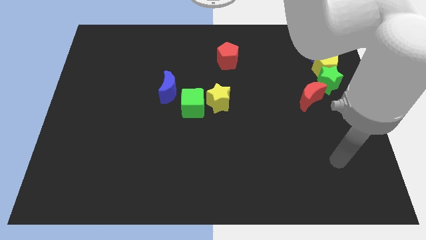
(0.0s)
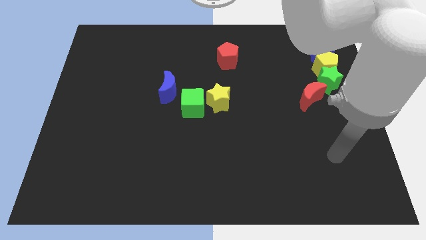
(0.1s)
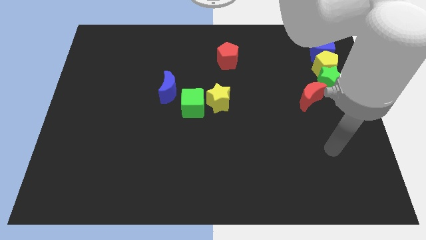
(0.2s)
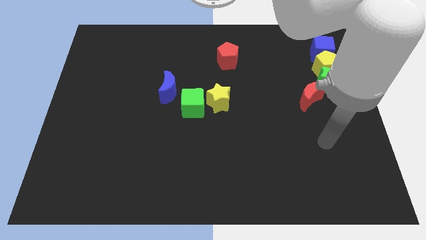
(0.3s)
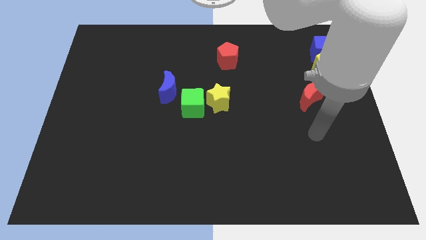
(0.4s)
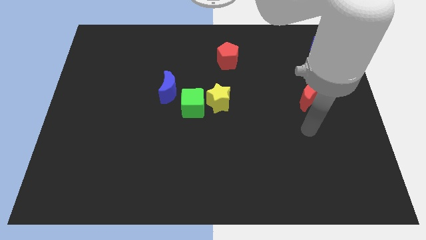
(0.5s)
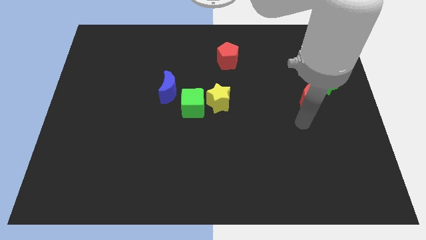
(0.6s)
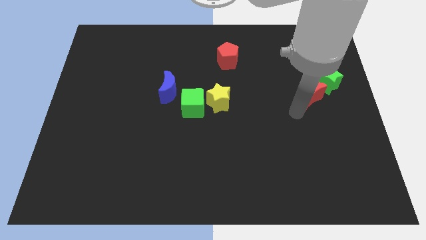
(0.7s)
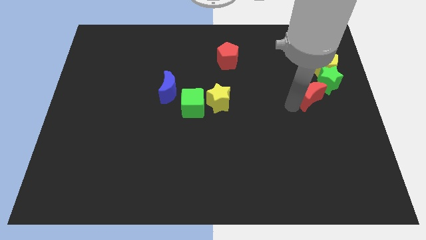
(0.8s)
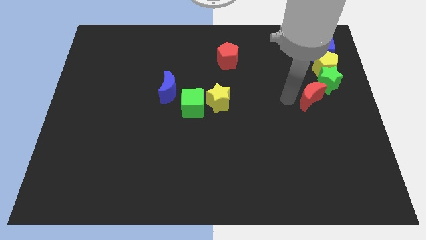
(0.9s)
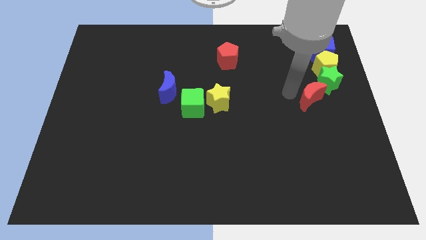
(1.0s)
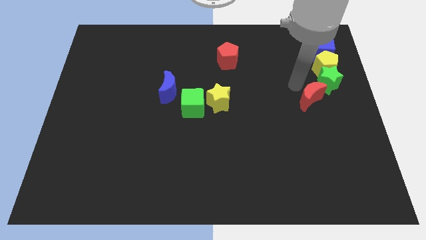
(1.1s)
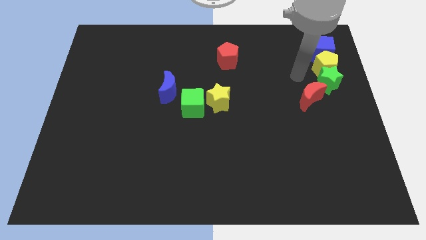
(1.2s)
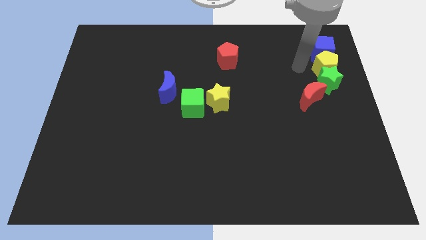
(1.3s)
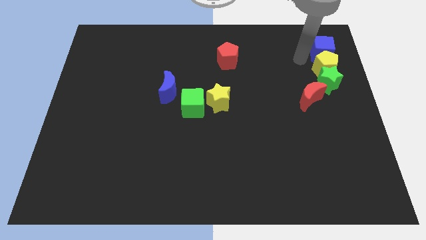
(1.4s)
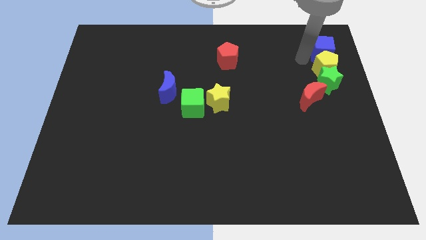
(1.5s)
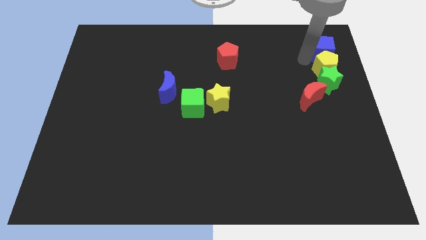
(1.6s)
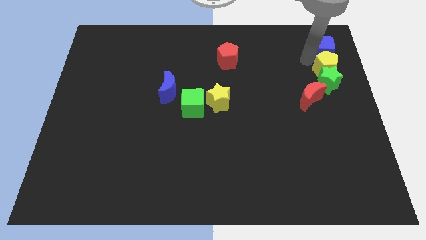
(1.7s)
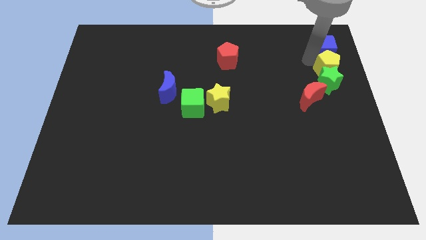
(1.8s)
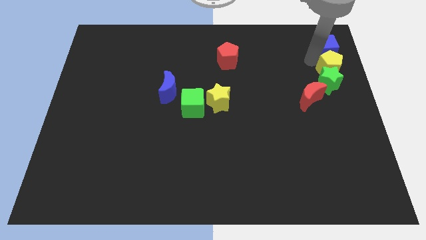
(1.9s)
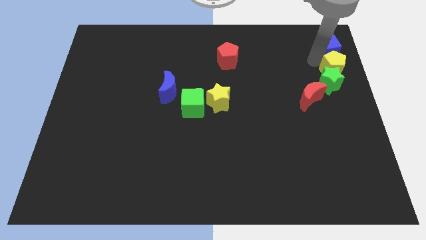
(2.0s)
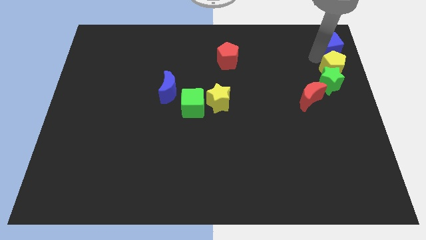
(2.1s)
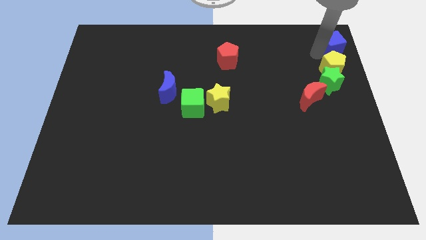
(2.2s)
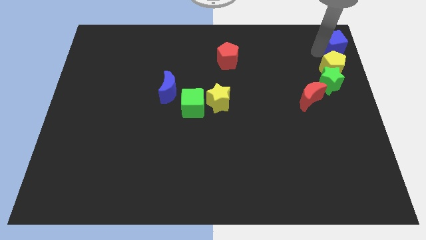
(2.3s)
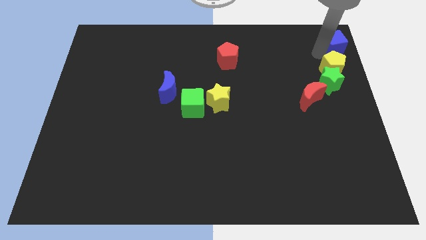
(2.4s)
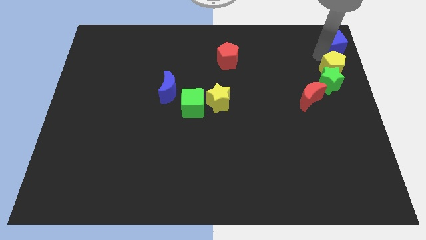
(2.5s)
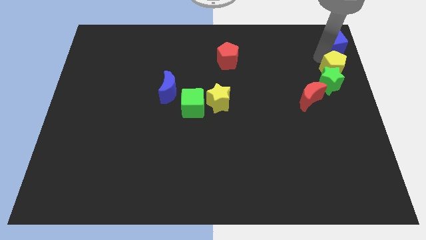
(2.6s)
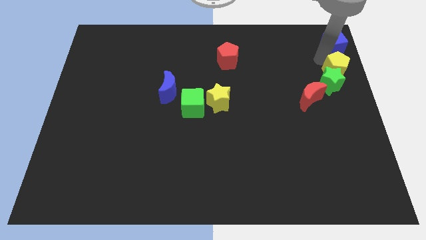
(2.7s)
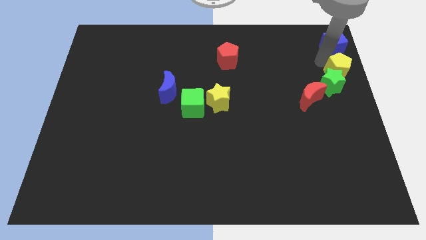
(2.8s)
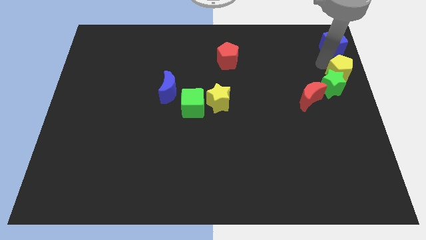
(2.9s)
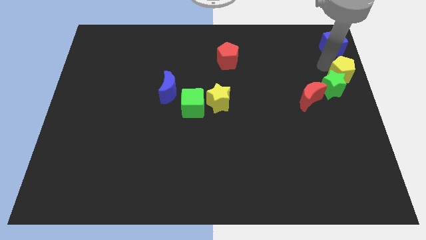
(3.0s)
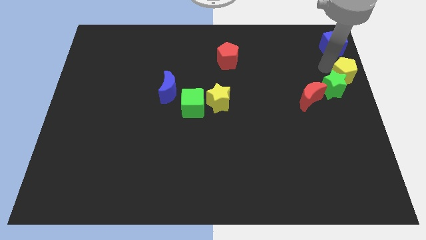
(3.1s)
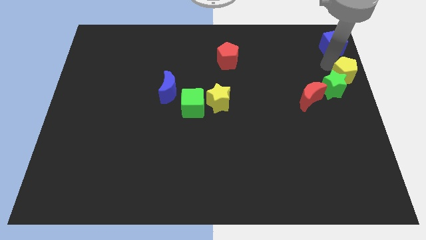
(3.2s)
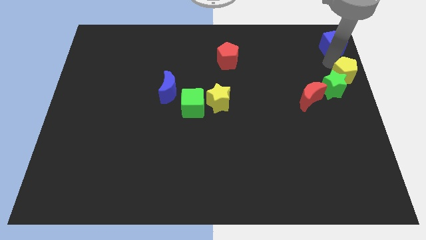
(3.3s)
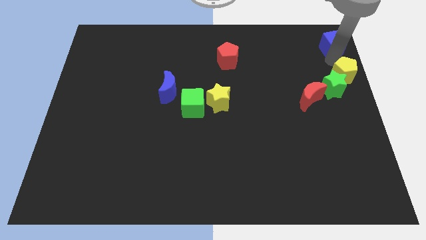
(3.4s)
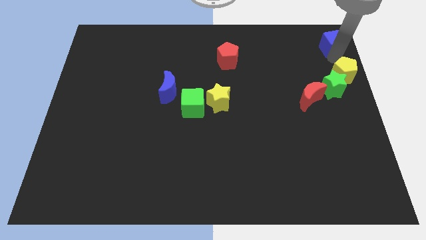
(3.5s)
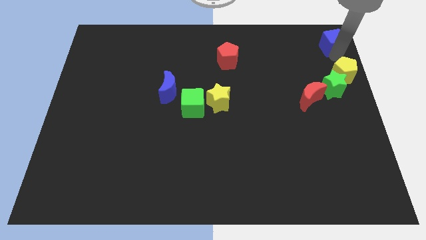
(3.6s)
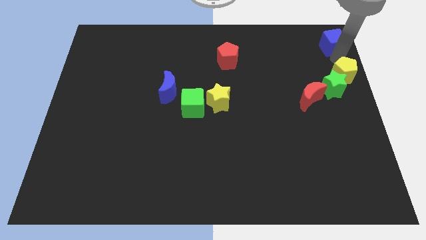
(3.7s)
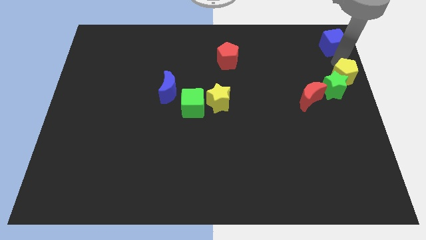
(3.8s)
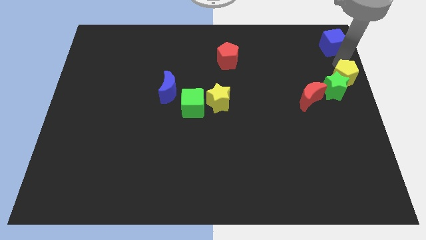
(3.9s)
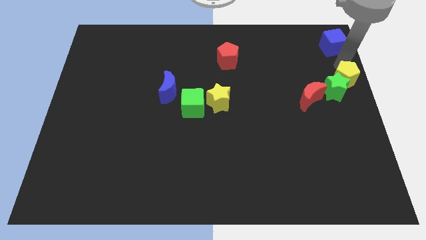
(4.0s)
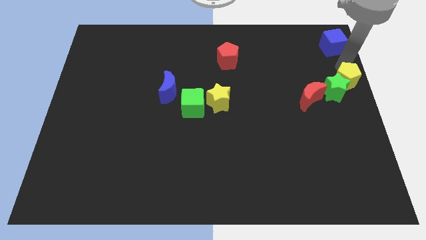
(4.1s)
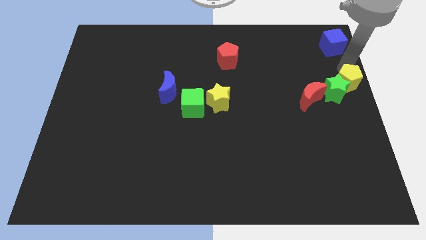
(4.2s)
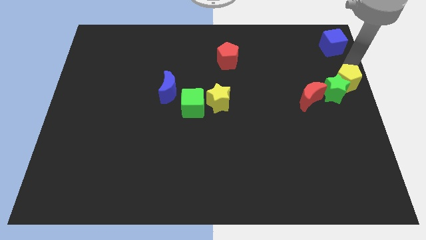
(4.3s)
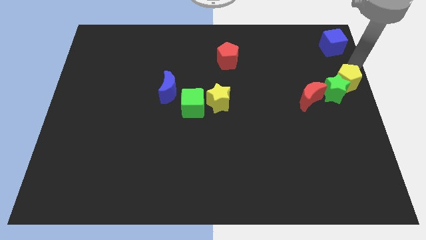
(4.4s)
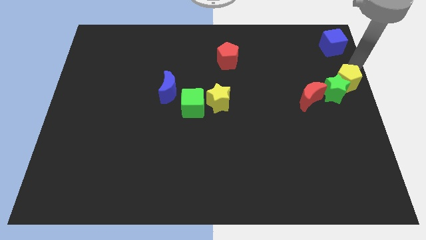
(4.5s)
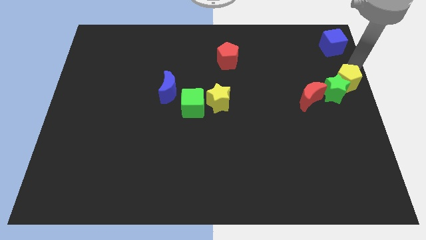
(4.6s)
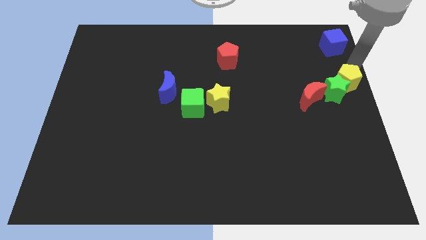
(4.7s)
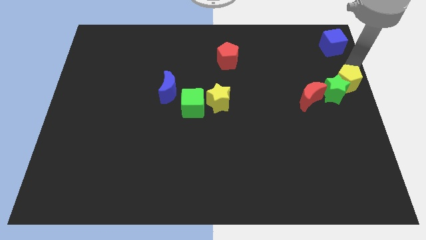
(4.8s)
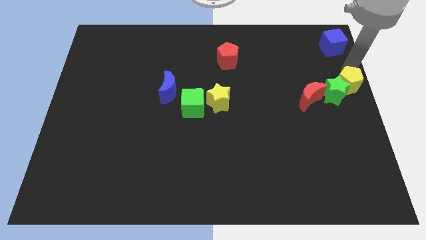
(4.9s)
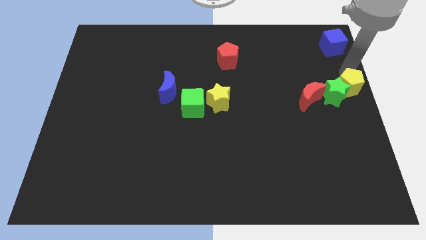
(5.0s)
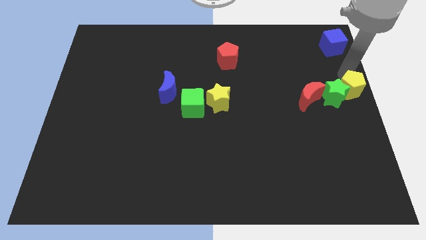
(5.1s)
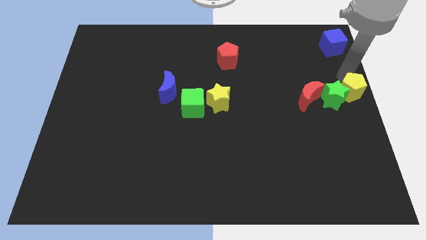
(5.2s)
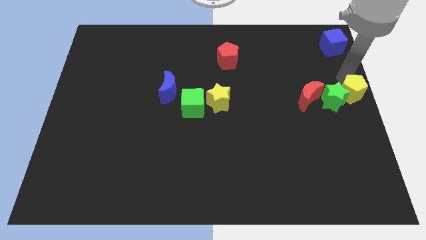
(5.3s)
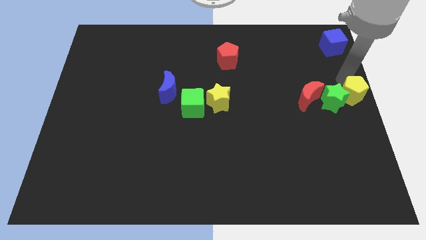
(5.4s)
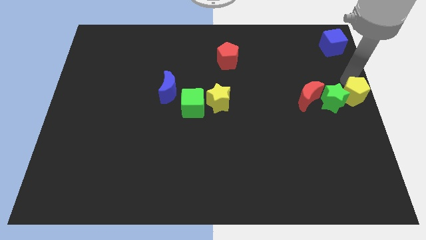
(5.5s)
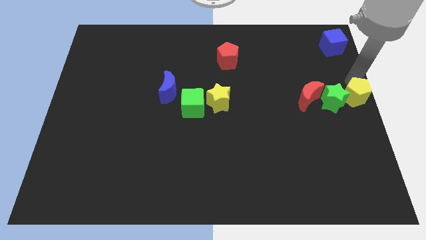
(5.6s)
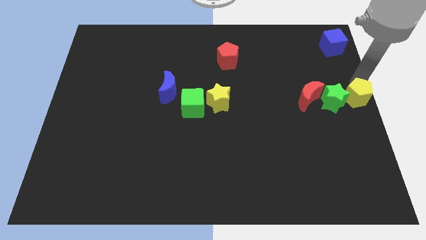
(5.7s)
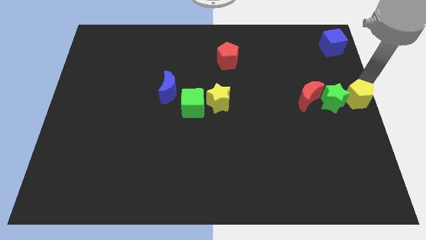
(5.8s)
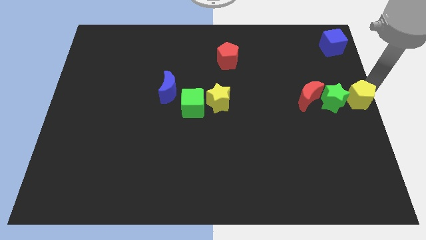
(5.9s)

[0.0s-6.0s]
separate the yellow pentagon from the green star and blue cube

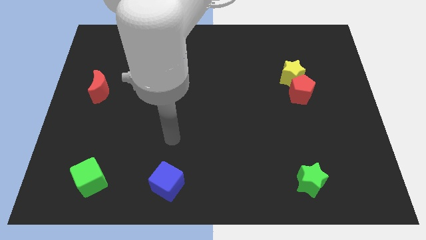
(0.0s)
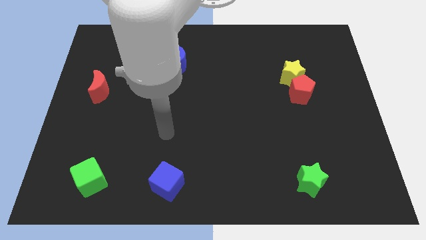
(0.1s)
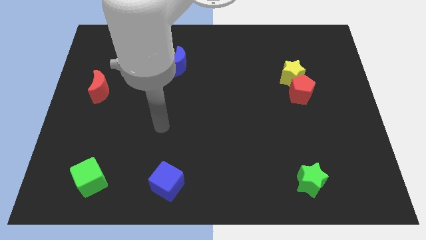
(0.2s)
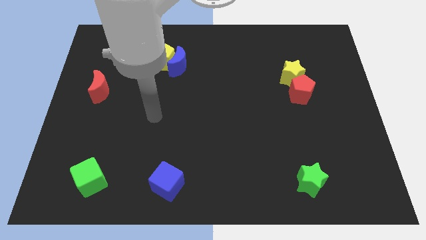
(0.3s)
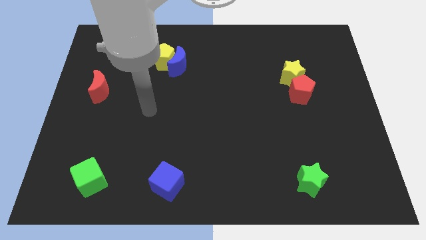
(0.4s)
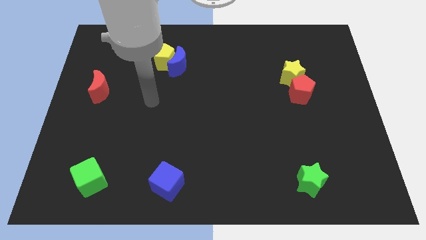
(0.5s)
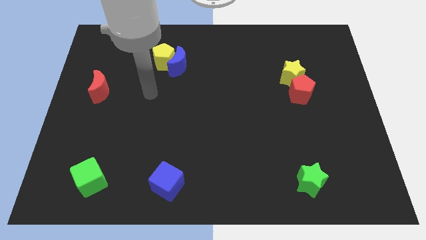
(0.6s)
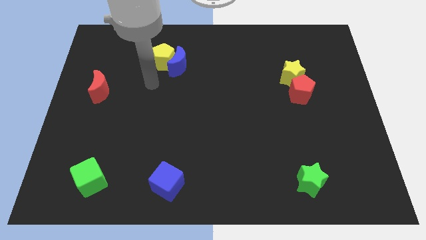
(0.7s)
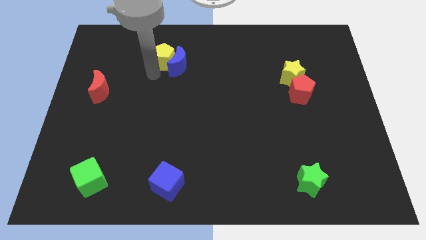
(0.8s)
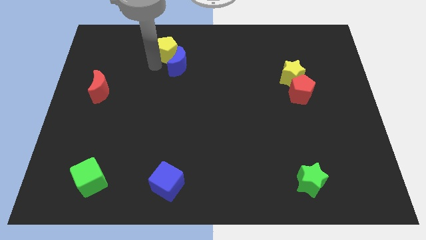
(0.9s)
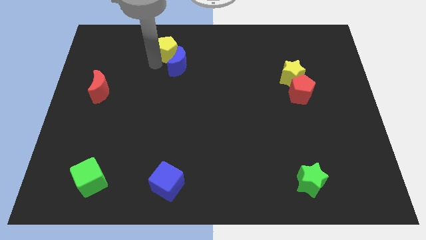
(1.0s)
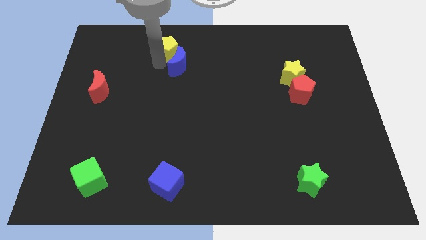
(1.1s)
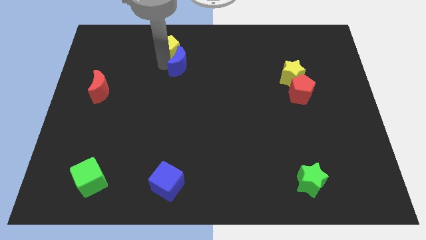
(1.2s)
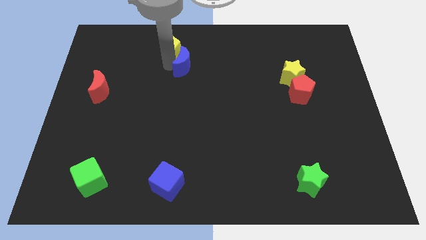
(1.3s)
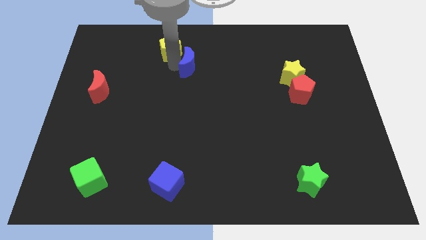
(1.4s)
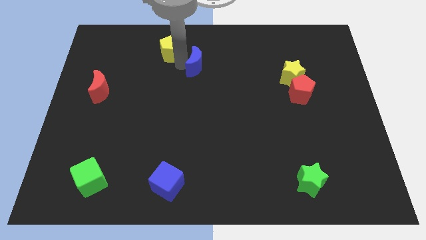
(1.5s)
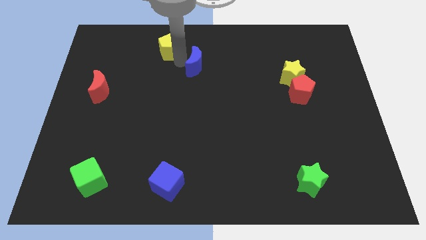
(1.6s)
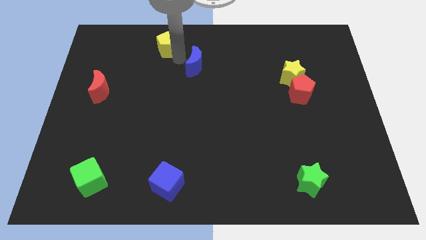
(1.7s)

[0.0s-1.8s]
move the blue moon away from the yellow pentagon

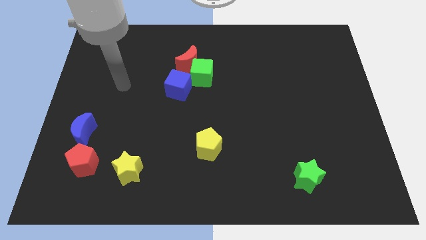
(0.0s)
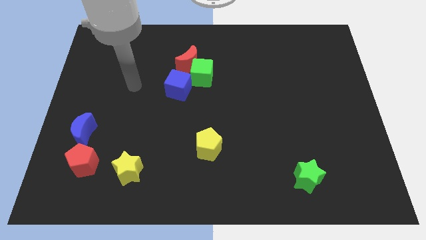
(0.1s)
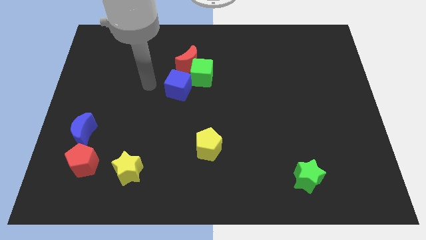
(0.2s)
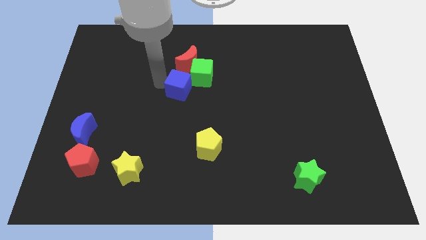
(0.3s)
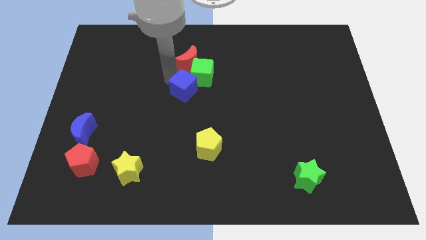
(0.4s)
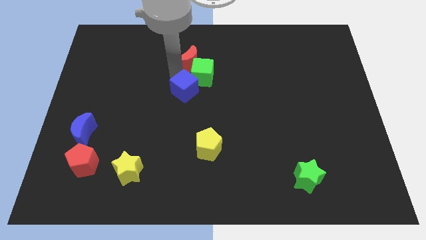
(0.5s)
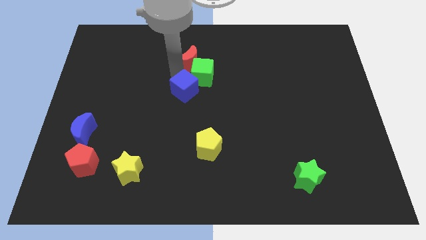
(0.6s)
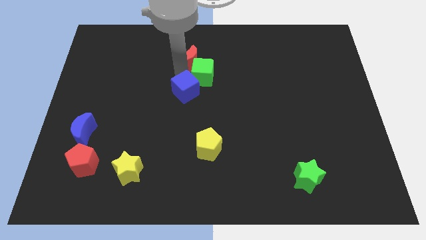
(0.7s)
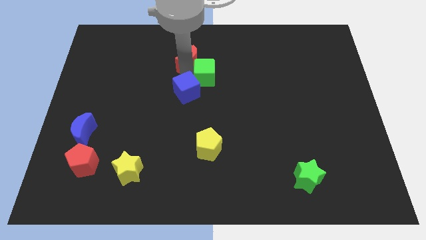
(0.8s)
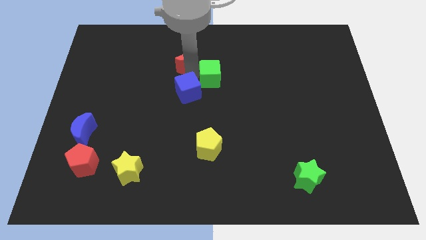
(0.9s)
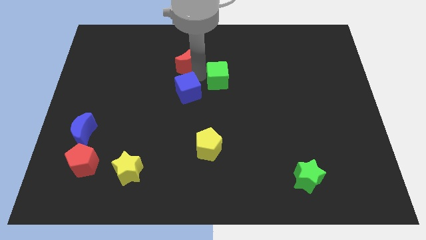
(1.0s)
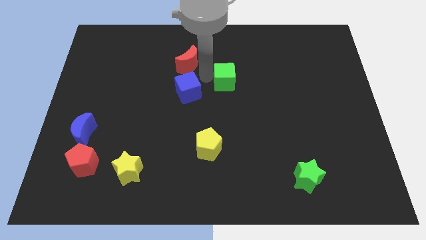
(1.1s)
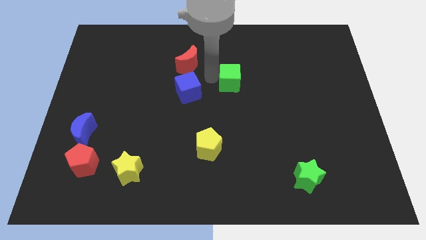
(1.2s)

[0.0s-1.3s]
pull the green cube apart from the red moon and blue cube

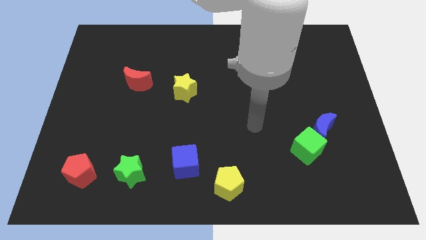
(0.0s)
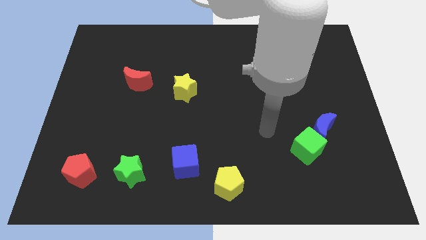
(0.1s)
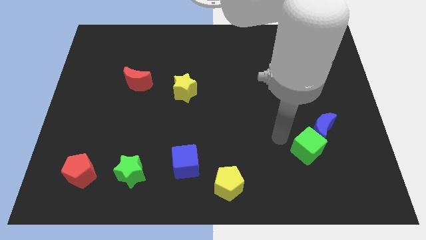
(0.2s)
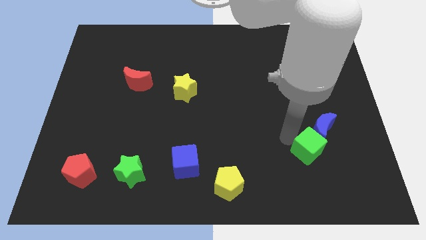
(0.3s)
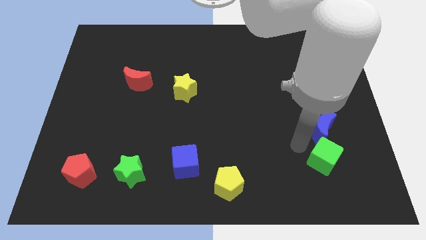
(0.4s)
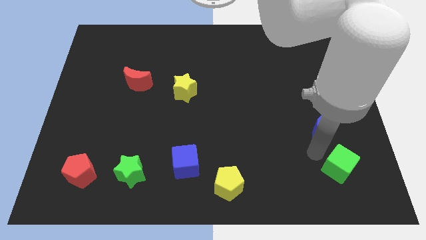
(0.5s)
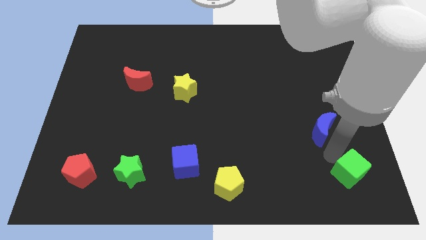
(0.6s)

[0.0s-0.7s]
pull the blue moon apart from the green cube
